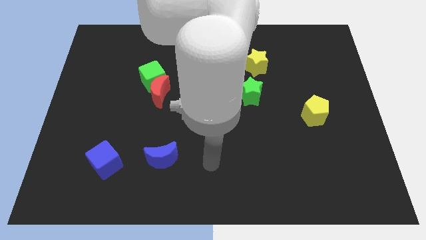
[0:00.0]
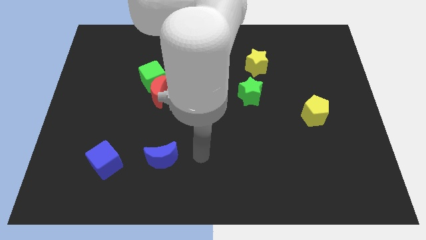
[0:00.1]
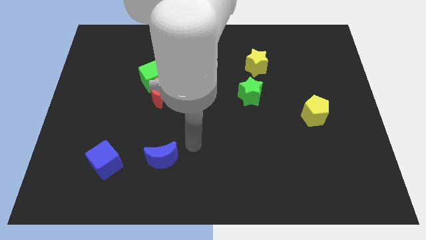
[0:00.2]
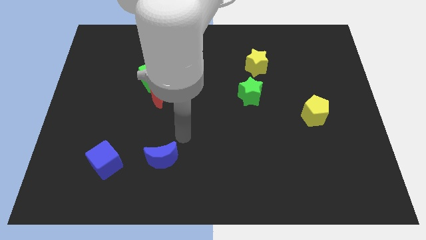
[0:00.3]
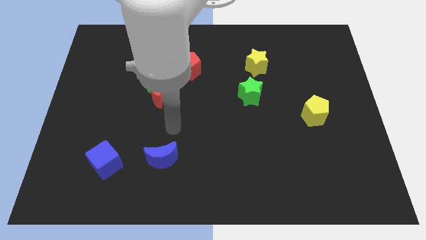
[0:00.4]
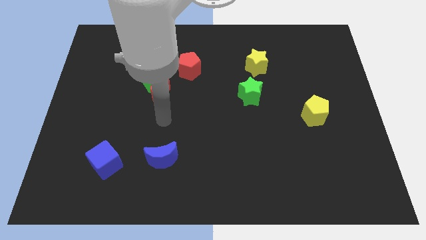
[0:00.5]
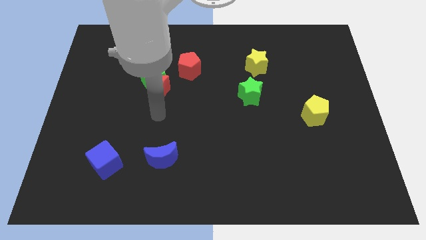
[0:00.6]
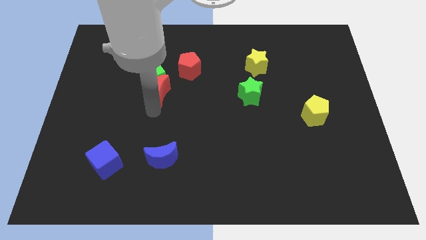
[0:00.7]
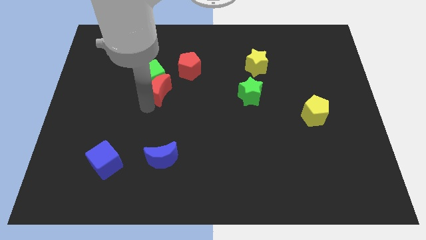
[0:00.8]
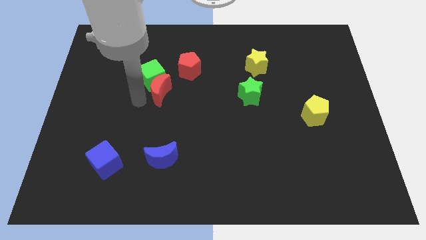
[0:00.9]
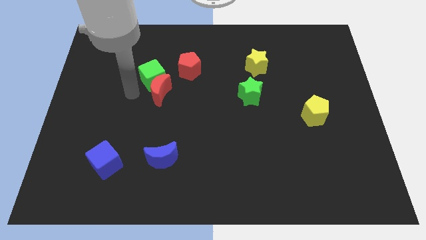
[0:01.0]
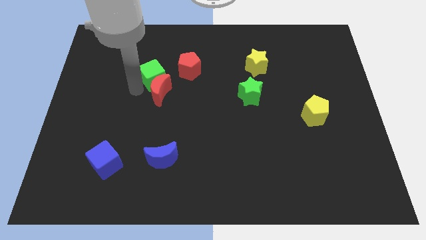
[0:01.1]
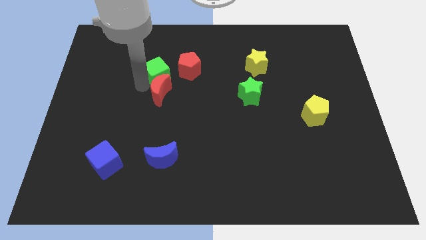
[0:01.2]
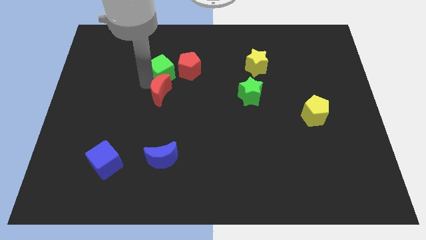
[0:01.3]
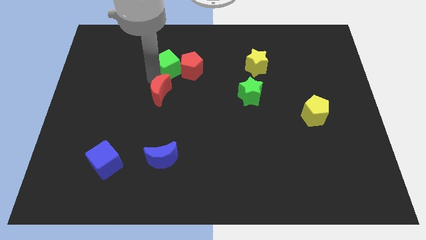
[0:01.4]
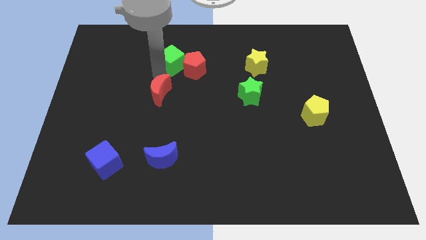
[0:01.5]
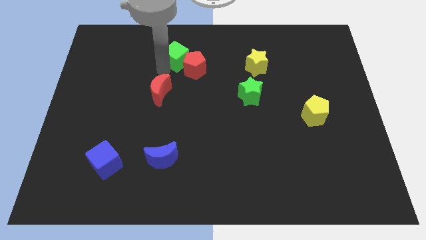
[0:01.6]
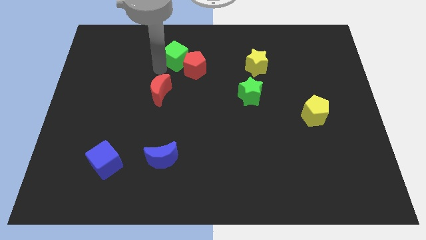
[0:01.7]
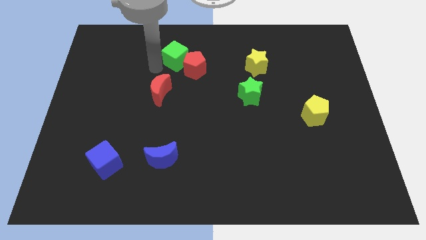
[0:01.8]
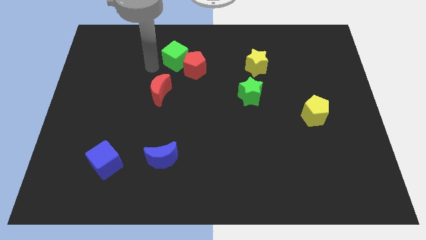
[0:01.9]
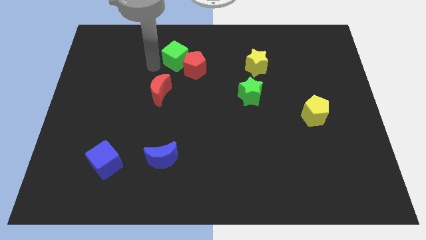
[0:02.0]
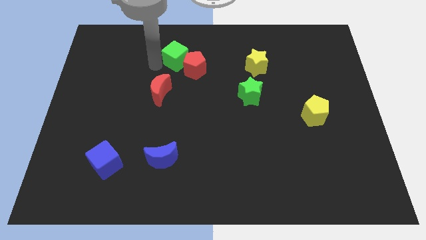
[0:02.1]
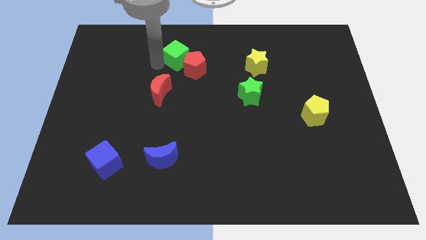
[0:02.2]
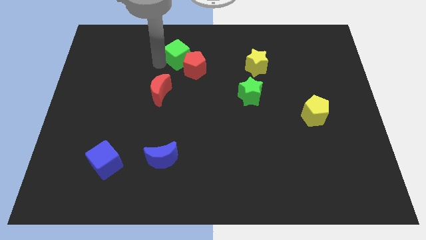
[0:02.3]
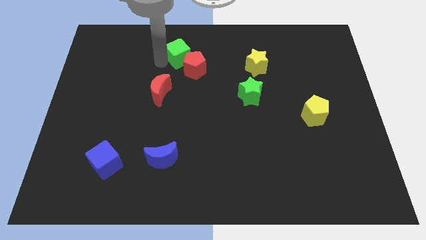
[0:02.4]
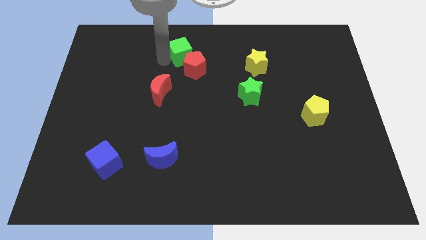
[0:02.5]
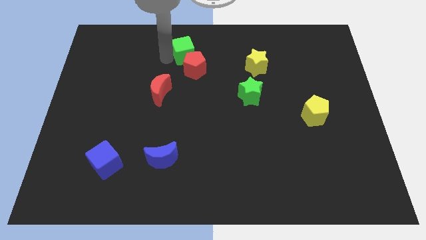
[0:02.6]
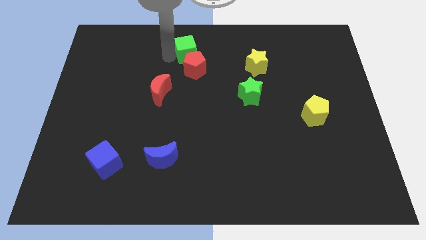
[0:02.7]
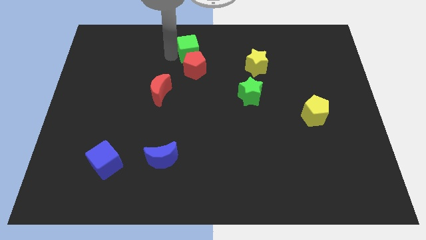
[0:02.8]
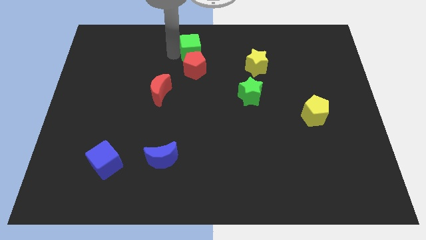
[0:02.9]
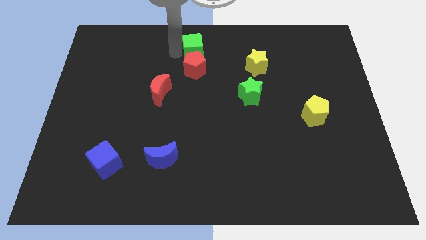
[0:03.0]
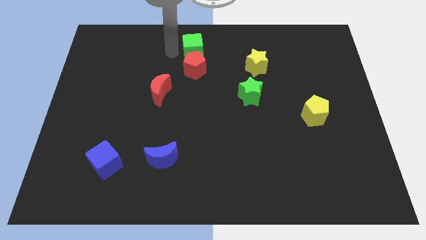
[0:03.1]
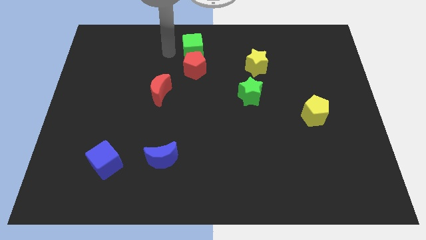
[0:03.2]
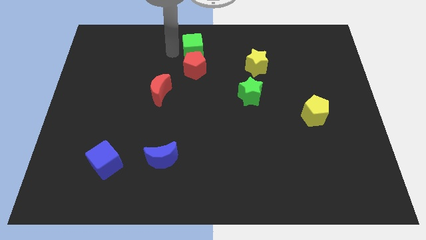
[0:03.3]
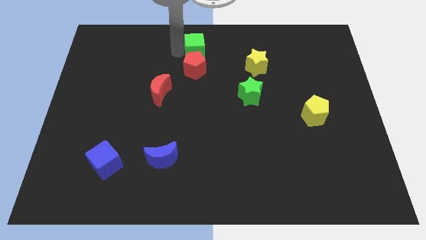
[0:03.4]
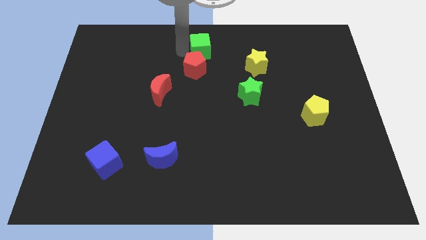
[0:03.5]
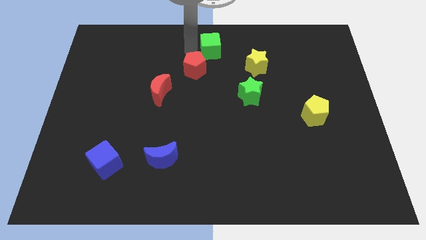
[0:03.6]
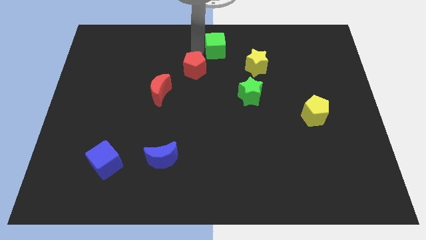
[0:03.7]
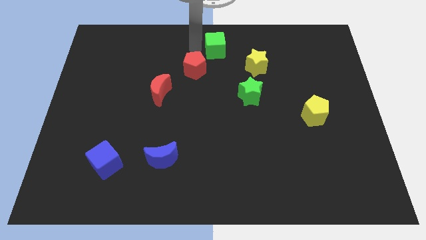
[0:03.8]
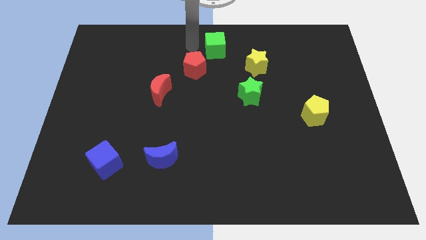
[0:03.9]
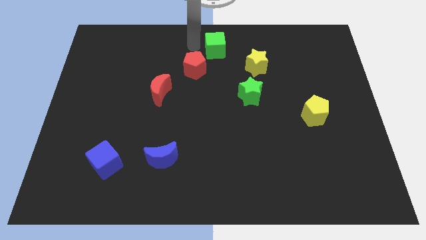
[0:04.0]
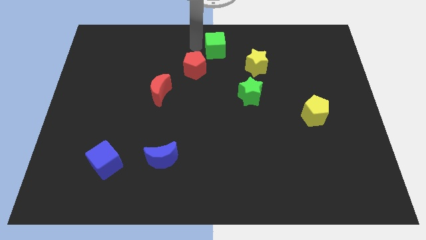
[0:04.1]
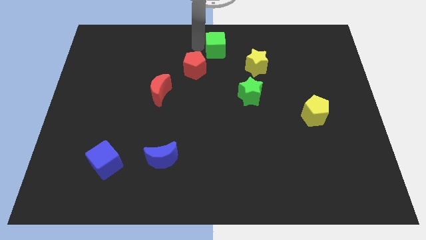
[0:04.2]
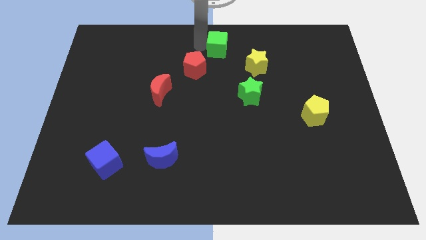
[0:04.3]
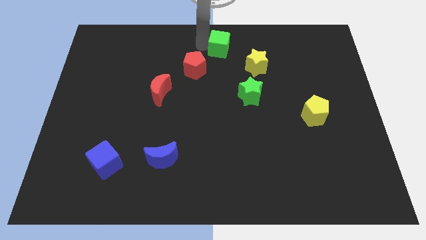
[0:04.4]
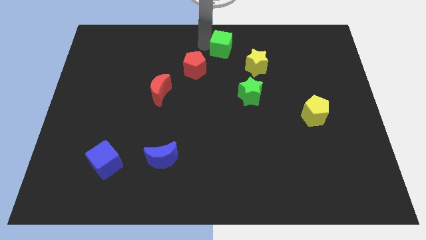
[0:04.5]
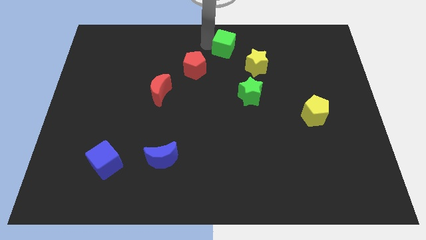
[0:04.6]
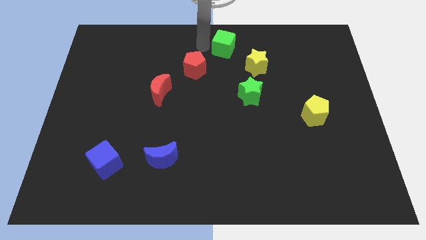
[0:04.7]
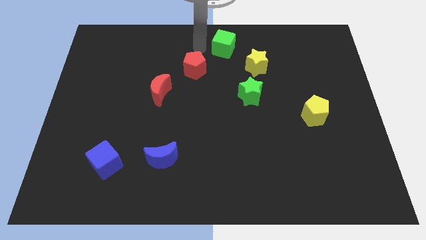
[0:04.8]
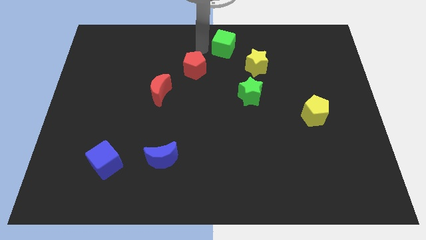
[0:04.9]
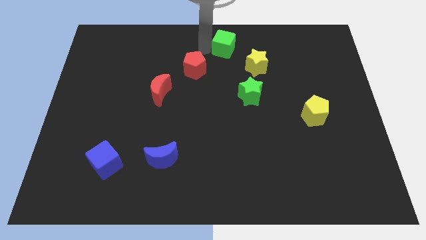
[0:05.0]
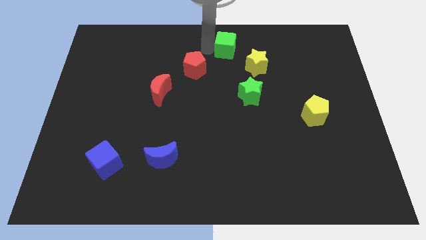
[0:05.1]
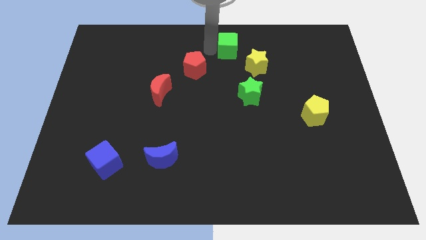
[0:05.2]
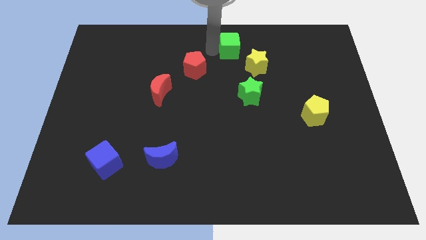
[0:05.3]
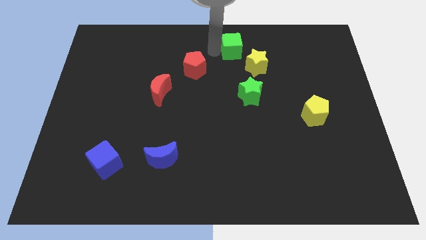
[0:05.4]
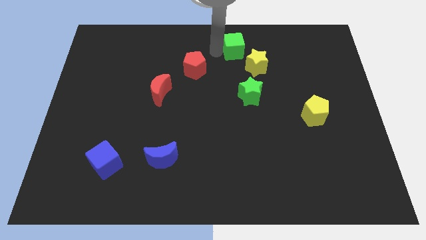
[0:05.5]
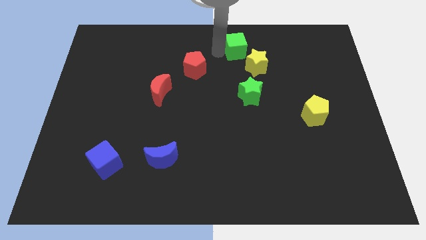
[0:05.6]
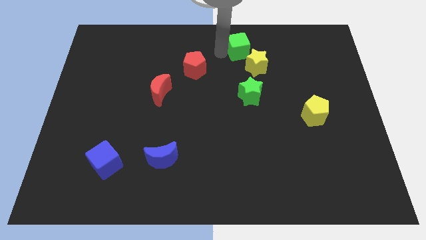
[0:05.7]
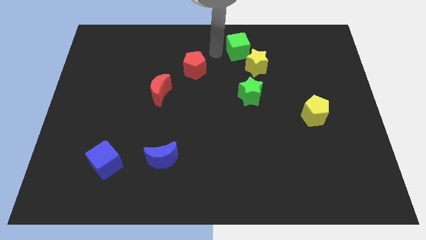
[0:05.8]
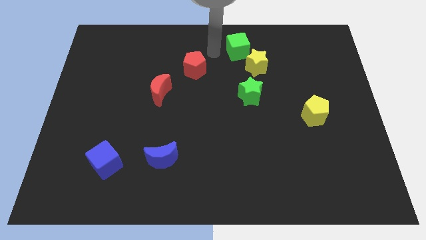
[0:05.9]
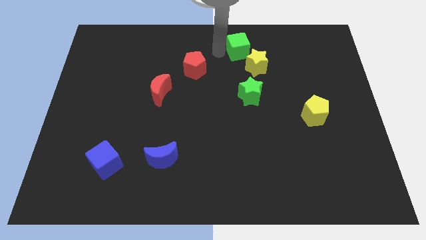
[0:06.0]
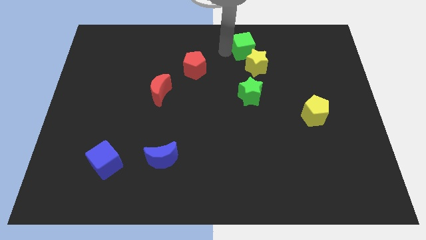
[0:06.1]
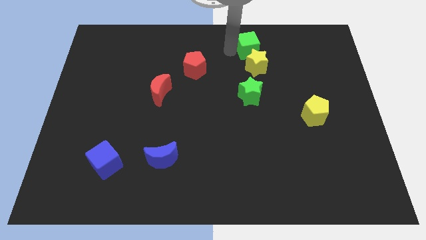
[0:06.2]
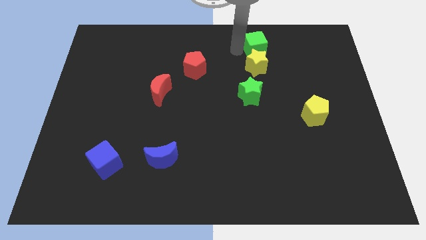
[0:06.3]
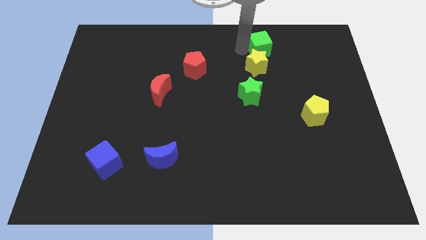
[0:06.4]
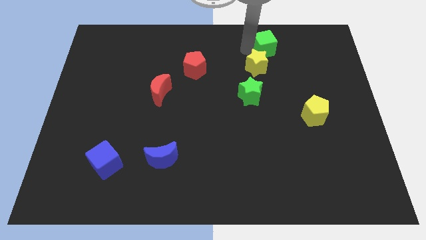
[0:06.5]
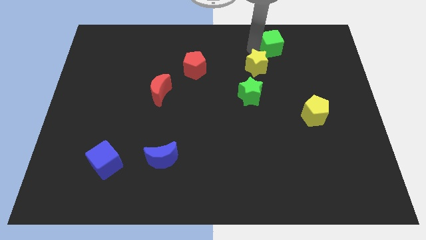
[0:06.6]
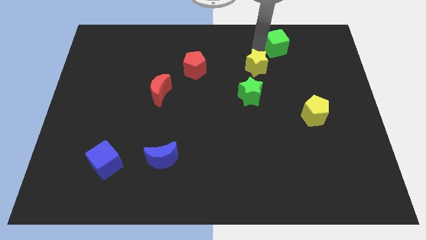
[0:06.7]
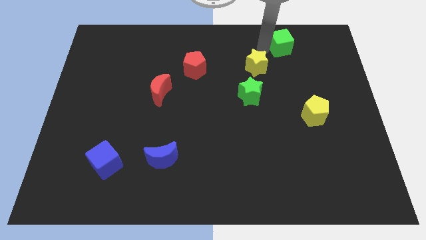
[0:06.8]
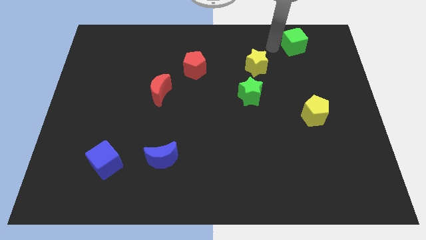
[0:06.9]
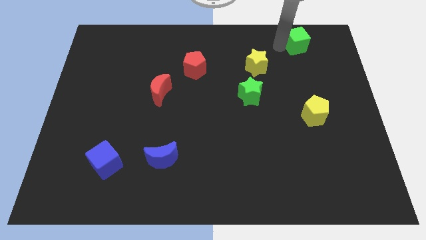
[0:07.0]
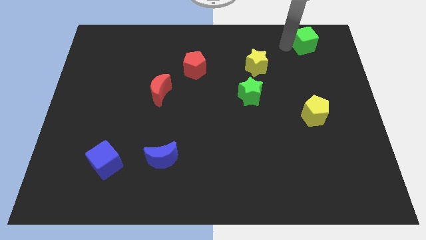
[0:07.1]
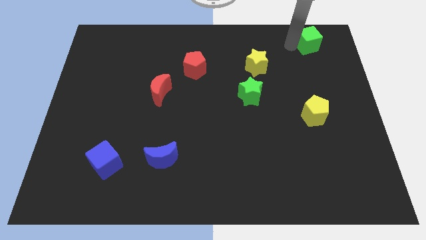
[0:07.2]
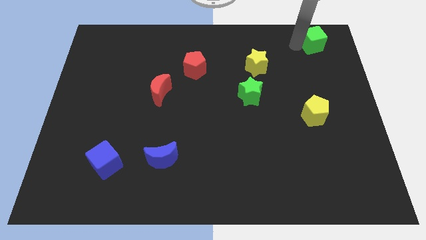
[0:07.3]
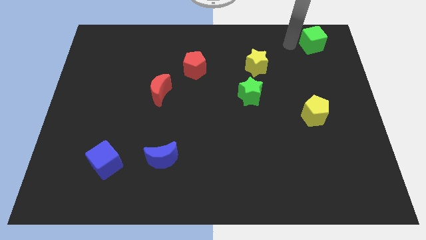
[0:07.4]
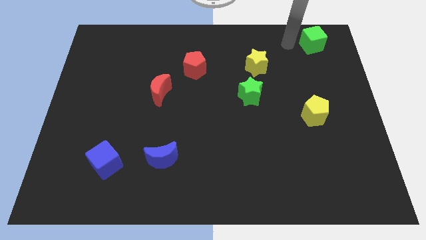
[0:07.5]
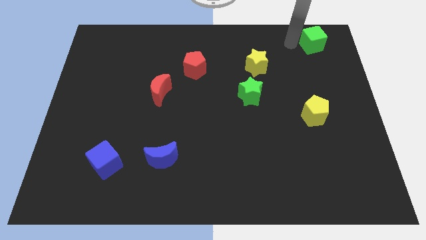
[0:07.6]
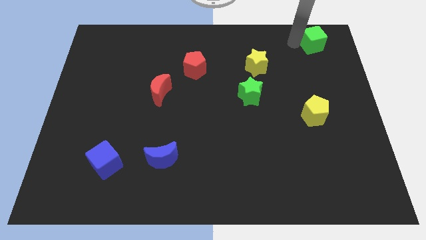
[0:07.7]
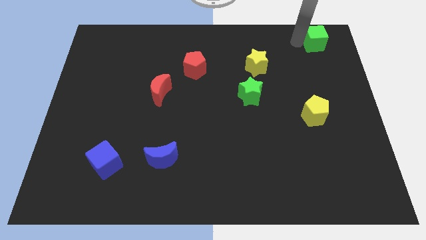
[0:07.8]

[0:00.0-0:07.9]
push the green cube to the top right
